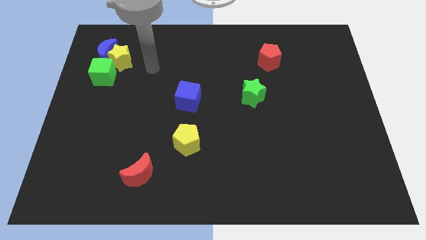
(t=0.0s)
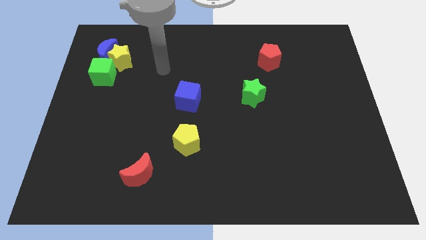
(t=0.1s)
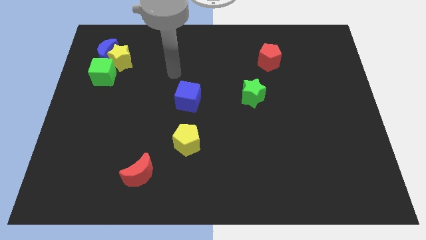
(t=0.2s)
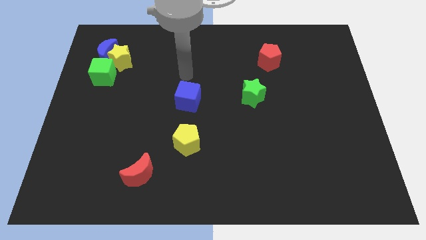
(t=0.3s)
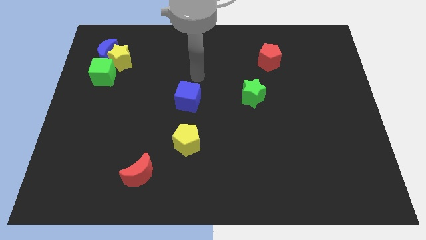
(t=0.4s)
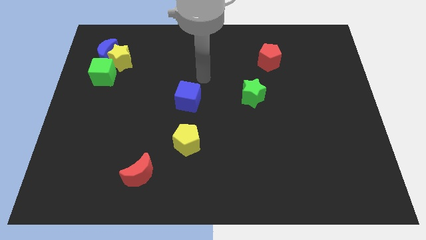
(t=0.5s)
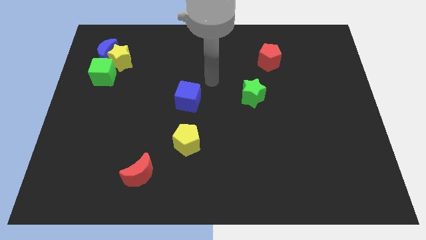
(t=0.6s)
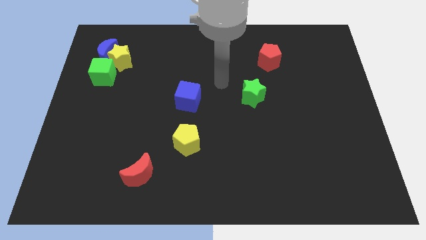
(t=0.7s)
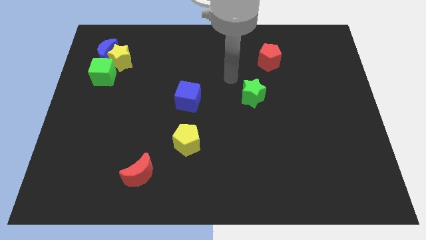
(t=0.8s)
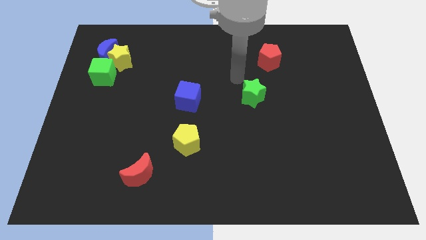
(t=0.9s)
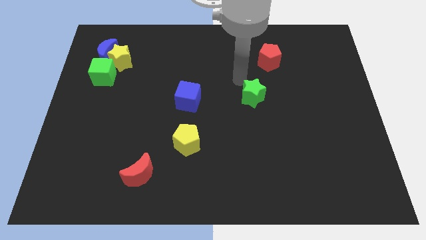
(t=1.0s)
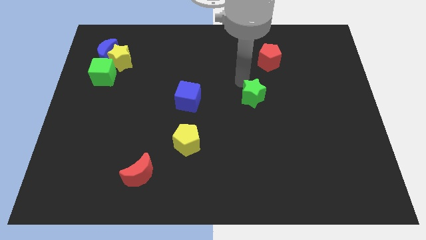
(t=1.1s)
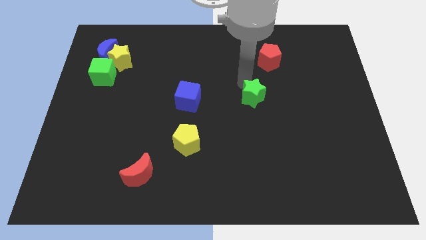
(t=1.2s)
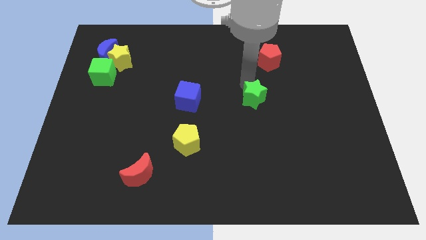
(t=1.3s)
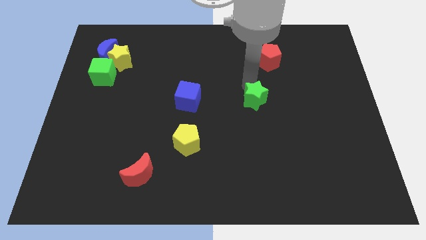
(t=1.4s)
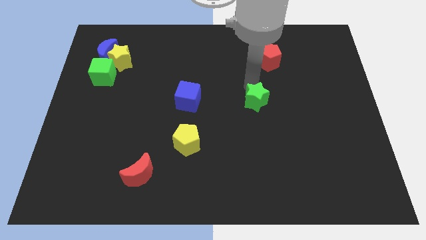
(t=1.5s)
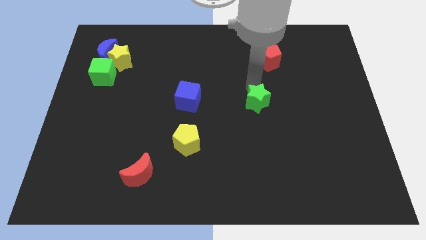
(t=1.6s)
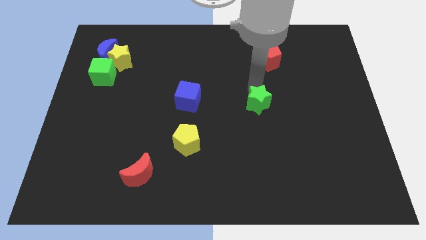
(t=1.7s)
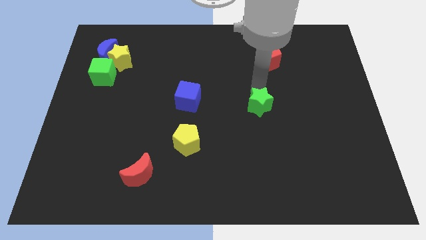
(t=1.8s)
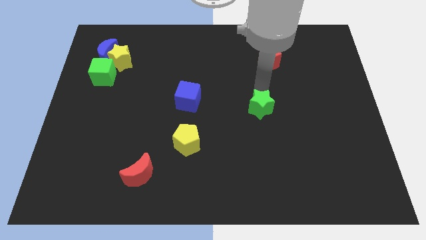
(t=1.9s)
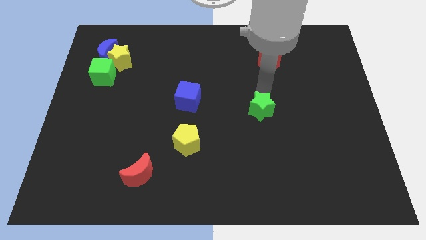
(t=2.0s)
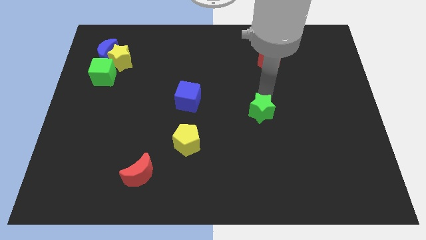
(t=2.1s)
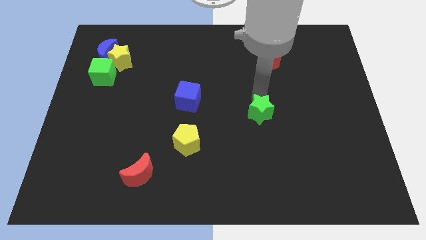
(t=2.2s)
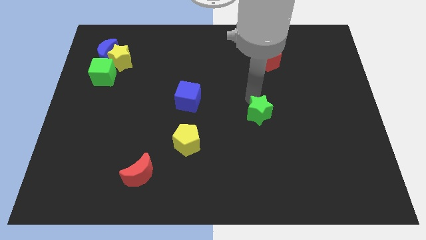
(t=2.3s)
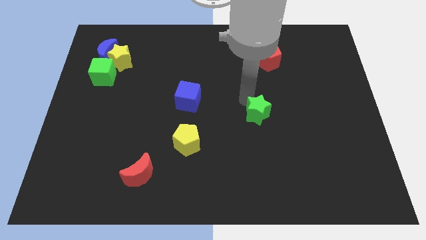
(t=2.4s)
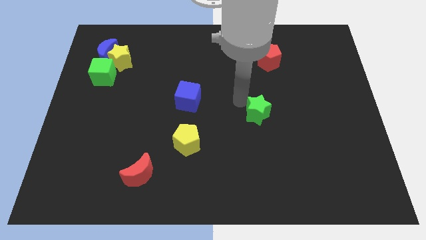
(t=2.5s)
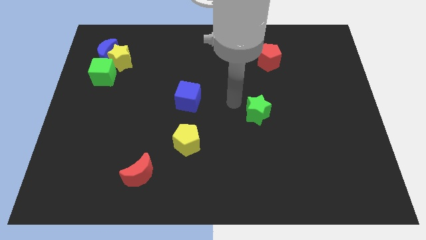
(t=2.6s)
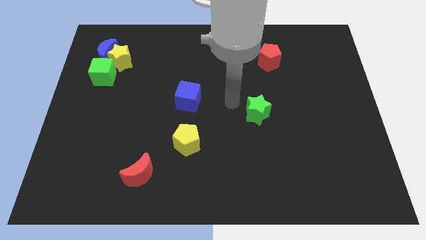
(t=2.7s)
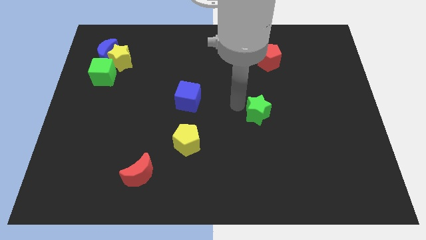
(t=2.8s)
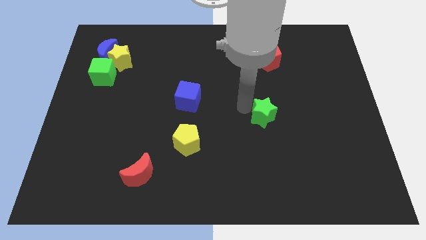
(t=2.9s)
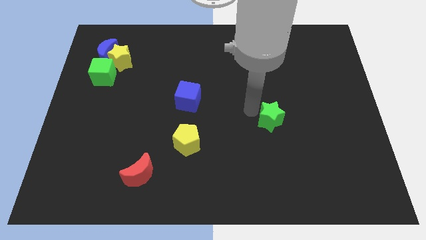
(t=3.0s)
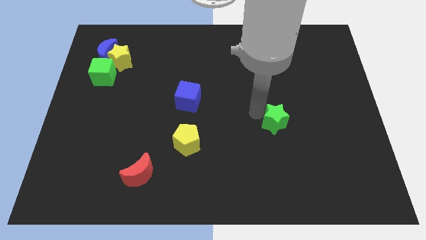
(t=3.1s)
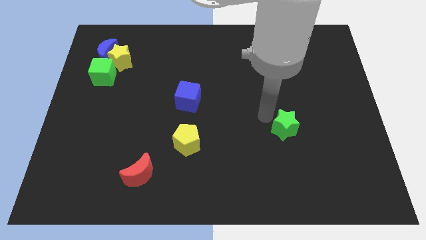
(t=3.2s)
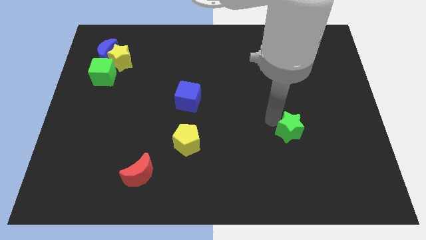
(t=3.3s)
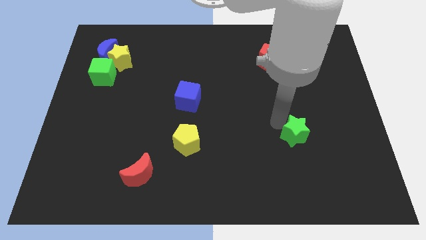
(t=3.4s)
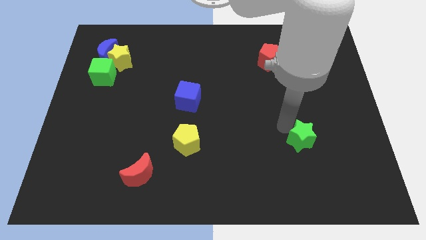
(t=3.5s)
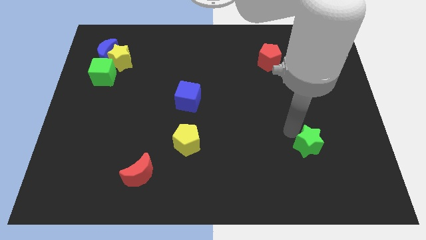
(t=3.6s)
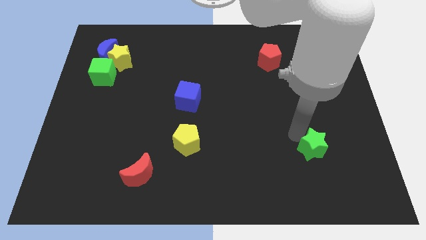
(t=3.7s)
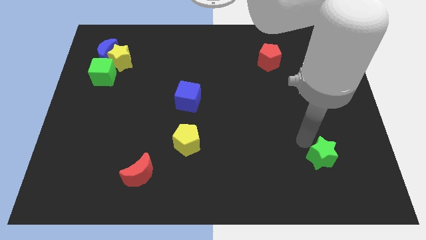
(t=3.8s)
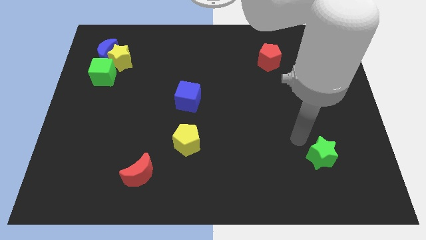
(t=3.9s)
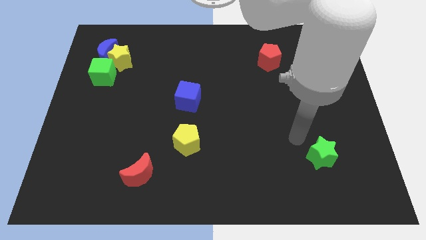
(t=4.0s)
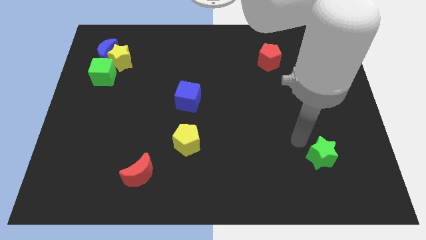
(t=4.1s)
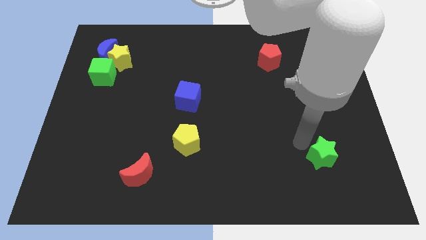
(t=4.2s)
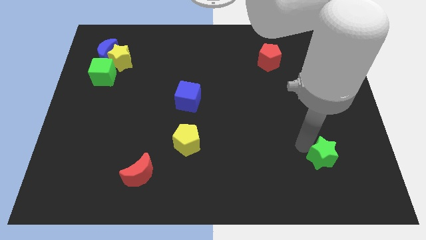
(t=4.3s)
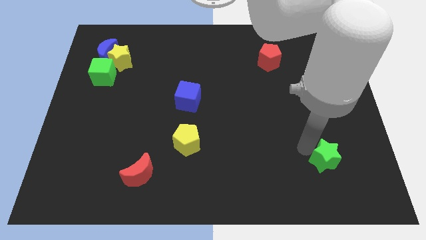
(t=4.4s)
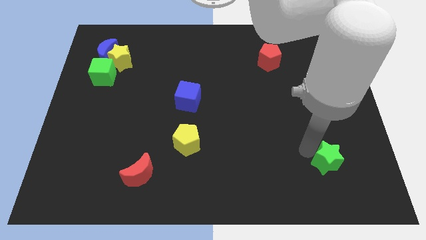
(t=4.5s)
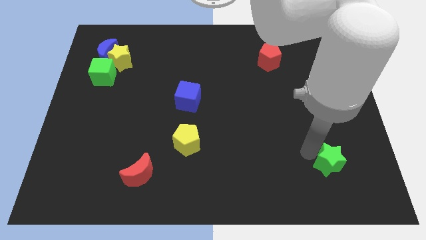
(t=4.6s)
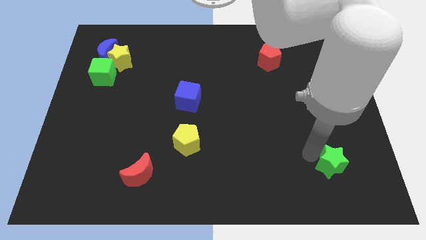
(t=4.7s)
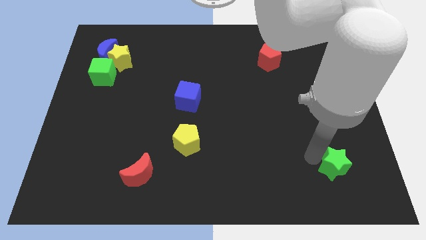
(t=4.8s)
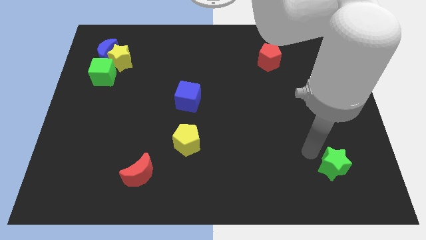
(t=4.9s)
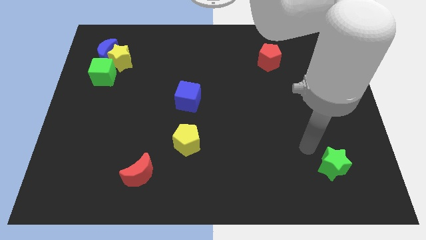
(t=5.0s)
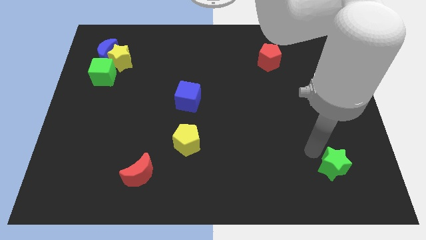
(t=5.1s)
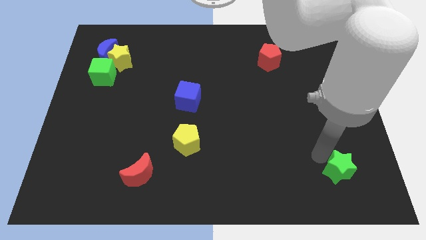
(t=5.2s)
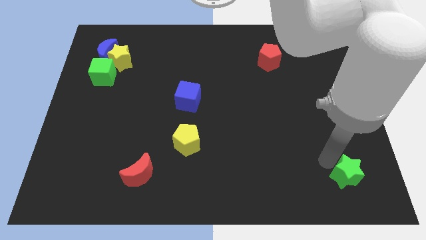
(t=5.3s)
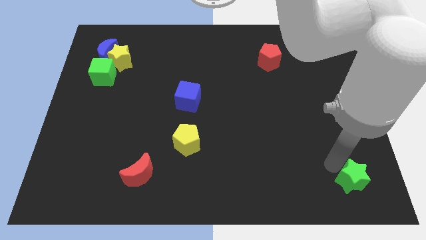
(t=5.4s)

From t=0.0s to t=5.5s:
move the green star to the lower right corner

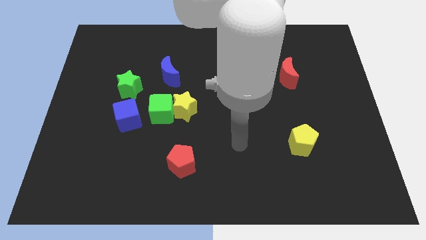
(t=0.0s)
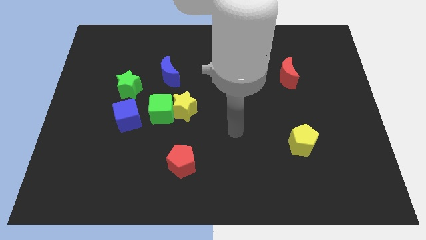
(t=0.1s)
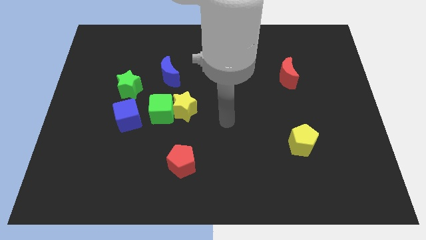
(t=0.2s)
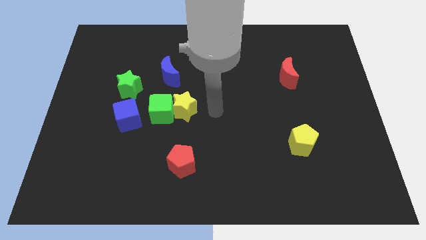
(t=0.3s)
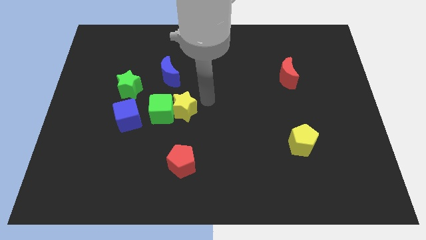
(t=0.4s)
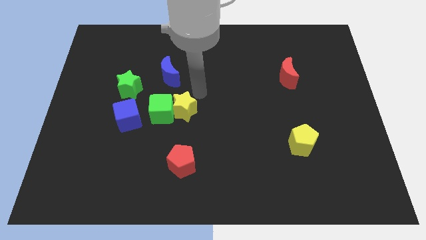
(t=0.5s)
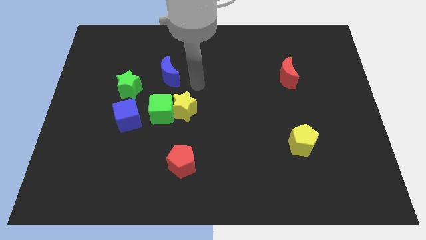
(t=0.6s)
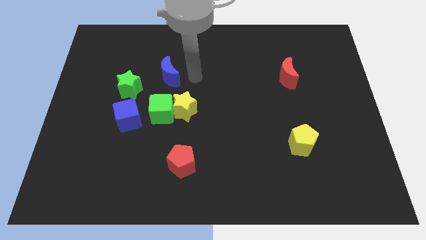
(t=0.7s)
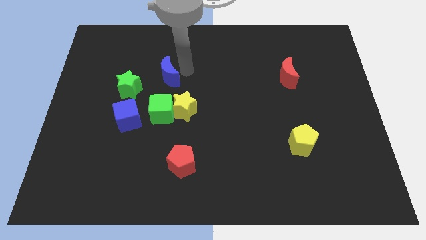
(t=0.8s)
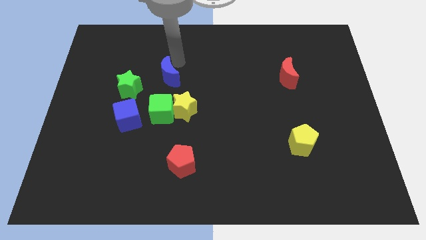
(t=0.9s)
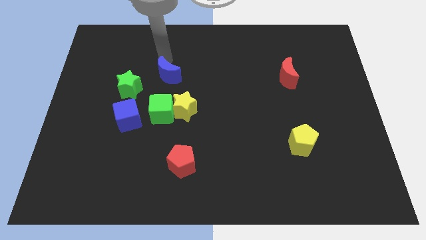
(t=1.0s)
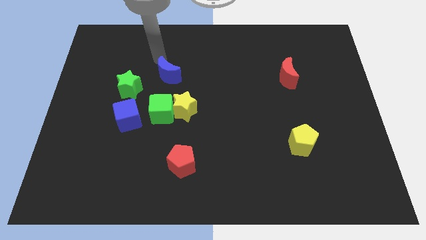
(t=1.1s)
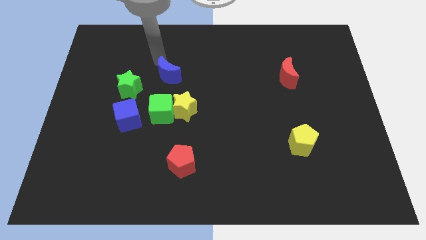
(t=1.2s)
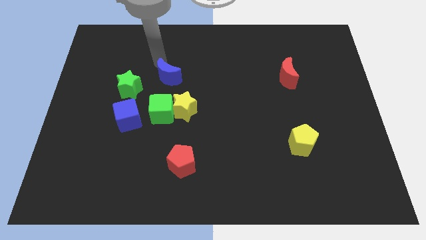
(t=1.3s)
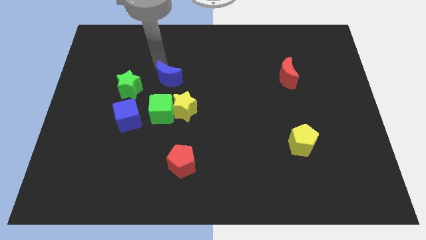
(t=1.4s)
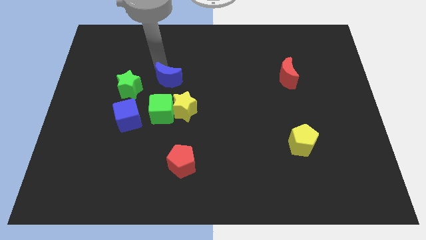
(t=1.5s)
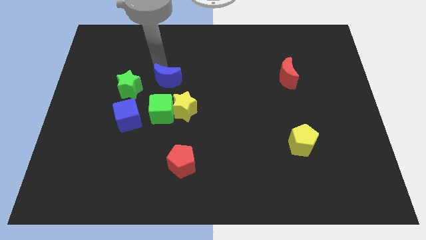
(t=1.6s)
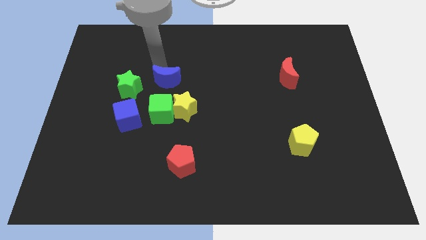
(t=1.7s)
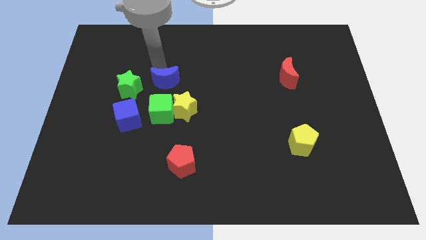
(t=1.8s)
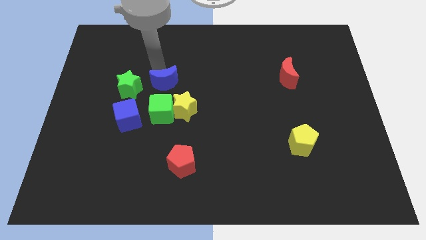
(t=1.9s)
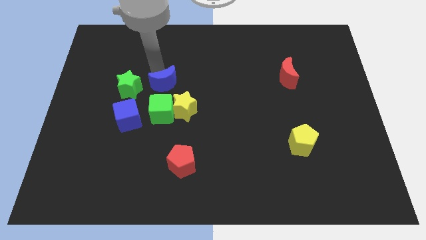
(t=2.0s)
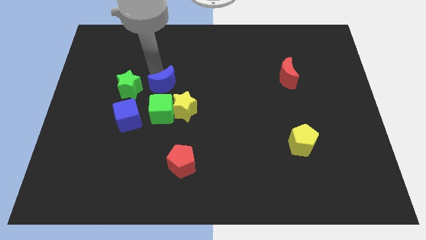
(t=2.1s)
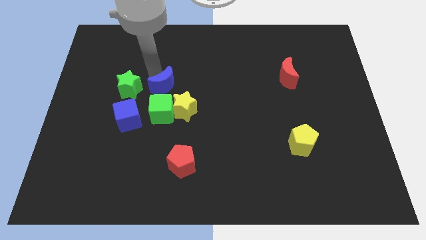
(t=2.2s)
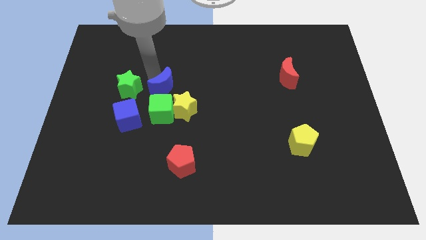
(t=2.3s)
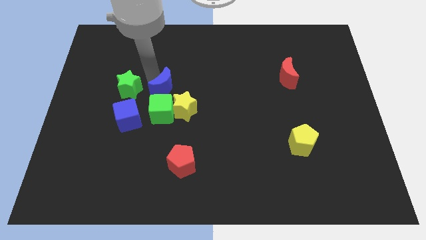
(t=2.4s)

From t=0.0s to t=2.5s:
push the blue moon to the center of the board
